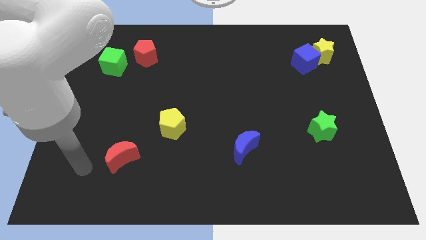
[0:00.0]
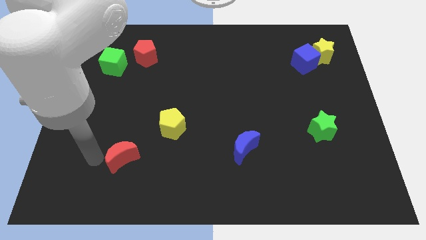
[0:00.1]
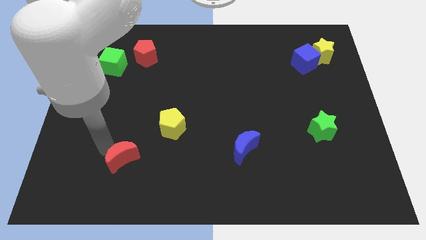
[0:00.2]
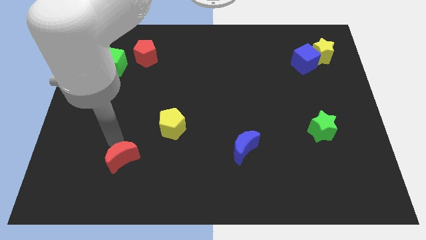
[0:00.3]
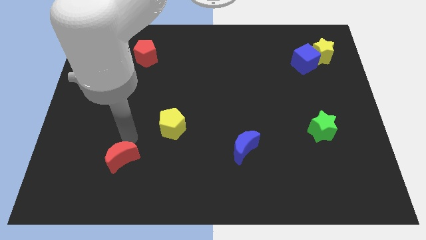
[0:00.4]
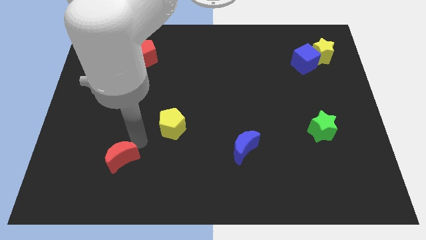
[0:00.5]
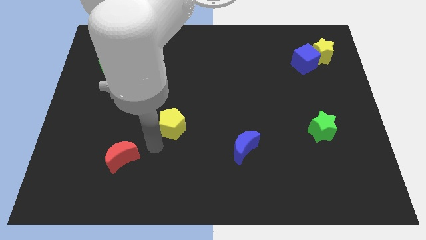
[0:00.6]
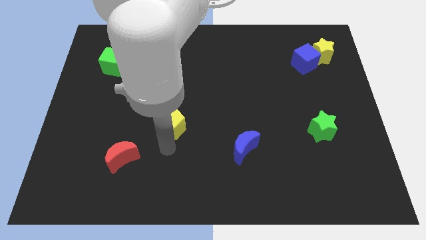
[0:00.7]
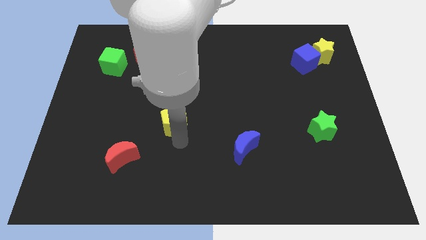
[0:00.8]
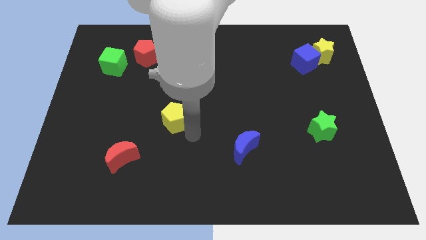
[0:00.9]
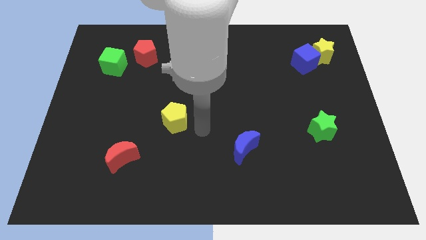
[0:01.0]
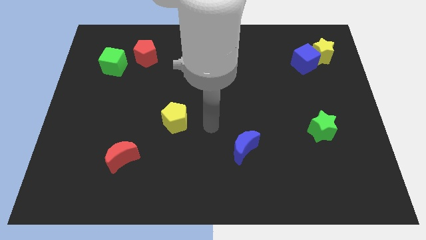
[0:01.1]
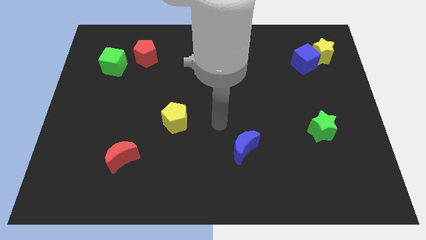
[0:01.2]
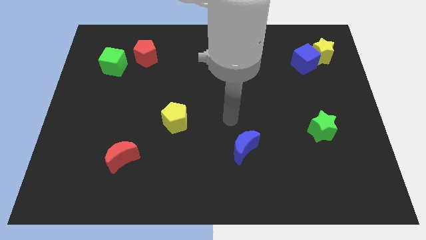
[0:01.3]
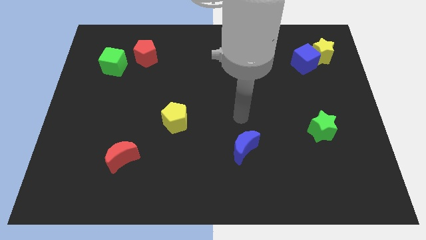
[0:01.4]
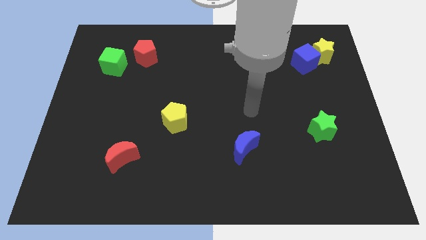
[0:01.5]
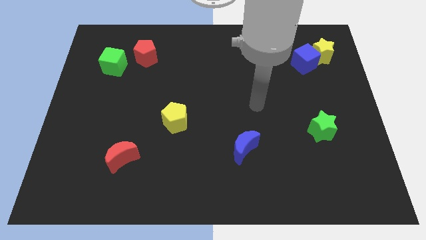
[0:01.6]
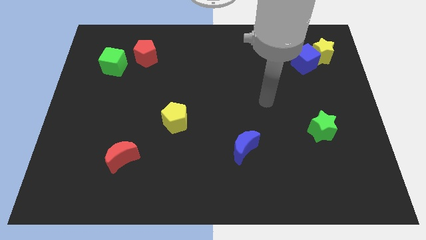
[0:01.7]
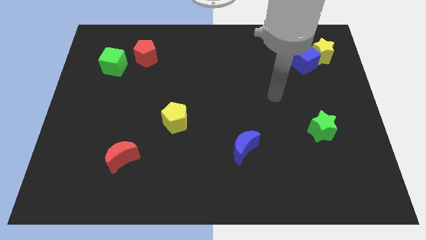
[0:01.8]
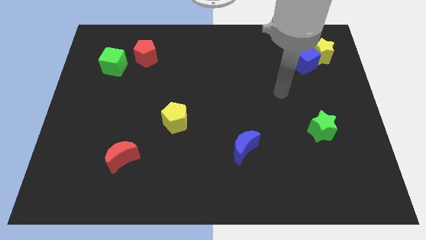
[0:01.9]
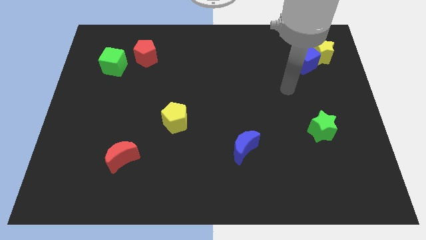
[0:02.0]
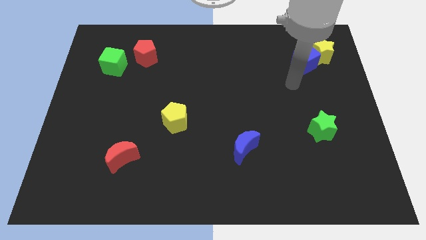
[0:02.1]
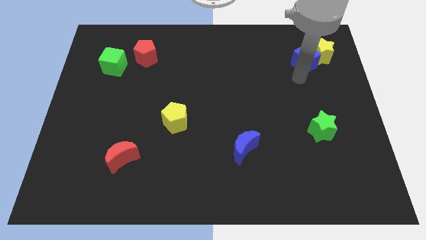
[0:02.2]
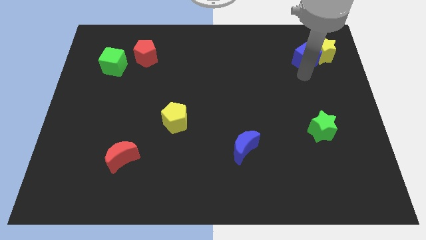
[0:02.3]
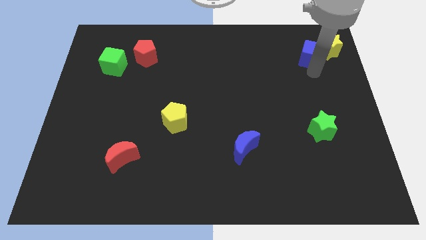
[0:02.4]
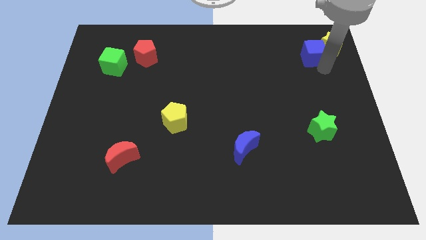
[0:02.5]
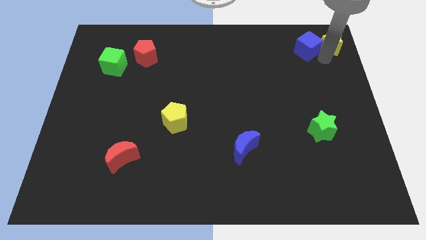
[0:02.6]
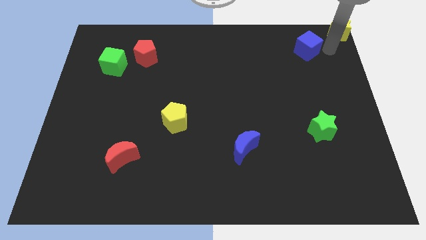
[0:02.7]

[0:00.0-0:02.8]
separate the blue cube from the yellow star

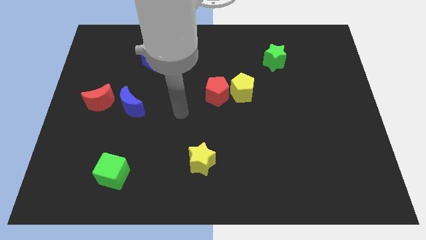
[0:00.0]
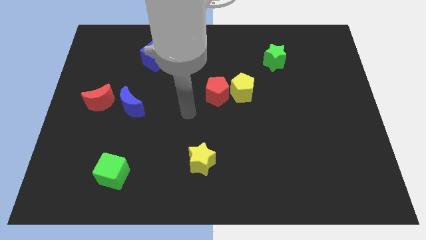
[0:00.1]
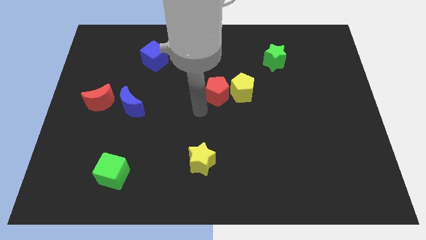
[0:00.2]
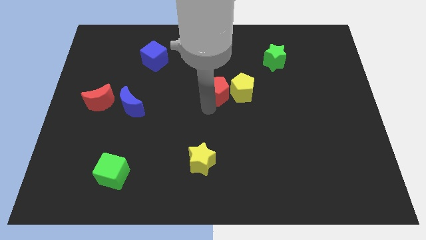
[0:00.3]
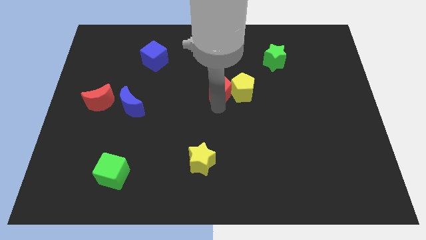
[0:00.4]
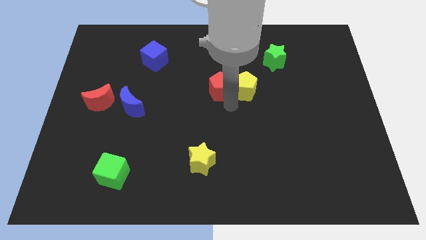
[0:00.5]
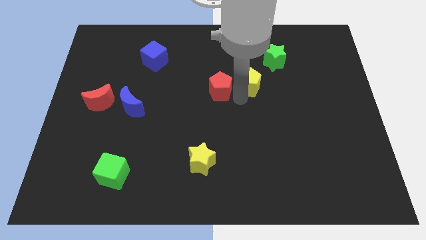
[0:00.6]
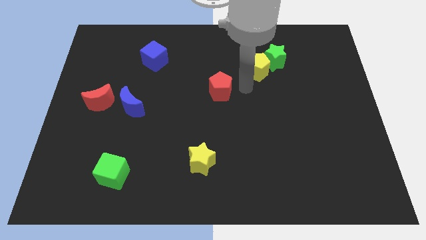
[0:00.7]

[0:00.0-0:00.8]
move the red pentagon away from the yellow pentagon

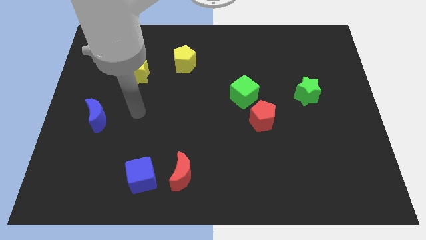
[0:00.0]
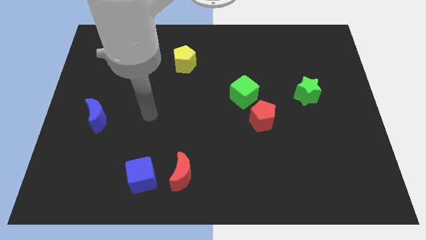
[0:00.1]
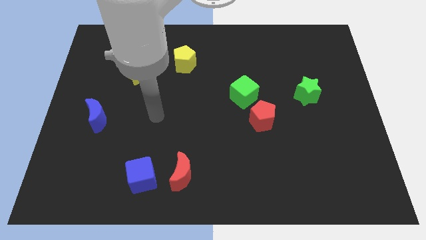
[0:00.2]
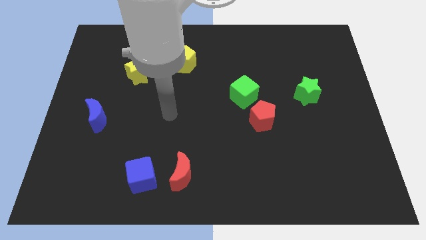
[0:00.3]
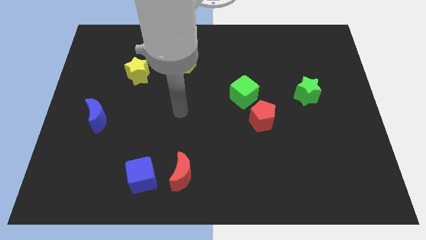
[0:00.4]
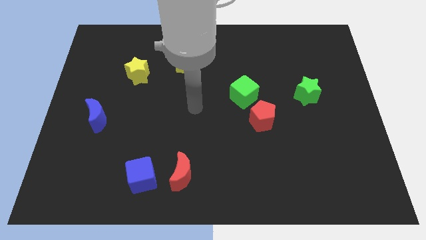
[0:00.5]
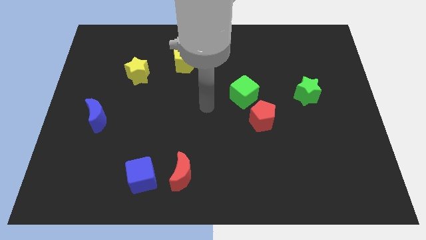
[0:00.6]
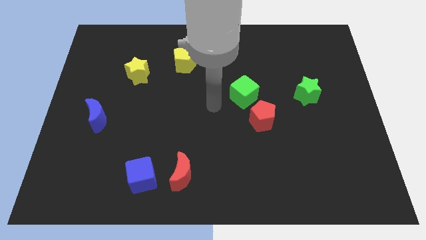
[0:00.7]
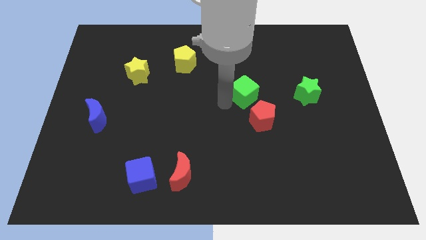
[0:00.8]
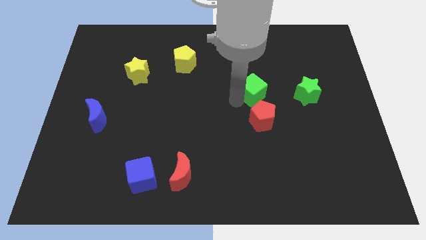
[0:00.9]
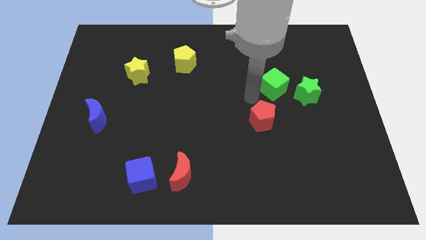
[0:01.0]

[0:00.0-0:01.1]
separate the red pentagon from the green cube

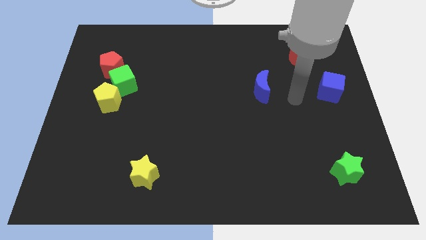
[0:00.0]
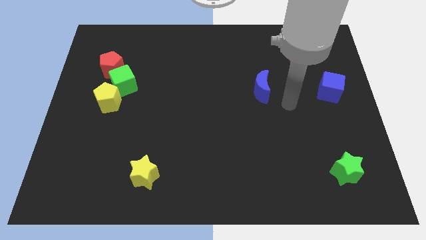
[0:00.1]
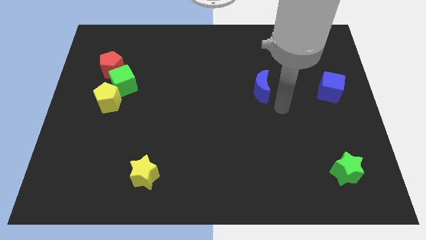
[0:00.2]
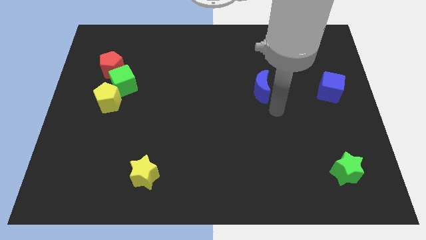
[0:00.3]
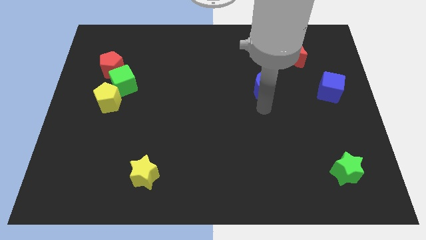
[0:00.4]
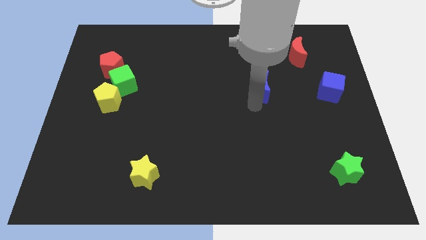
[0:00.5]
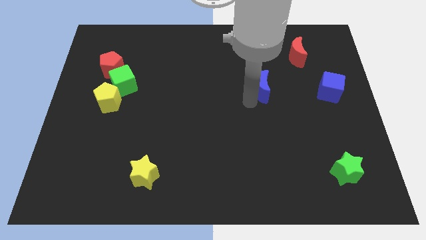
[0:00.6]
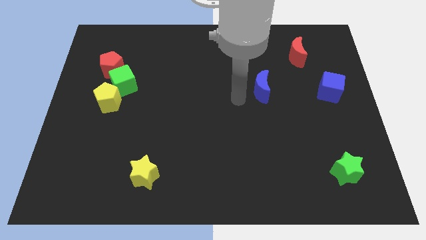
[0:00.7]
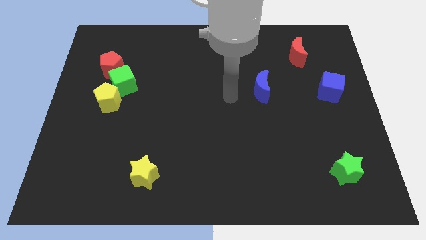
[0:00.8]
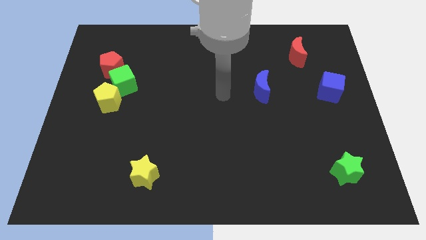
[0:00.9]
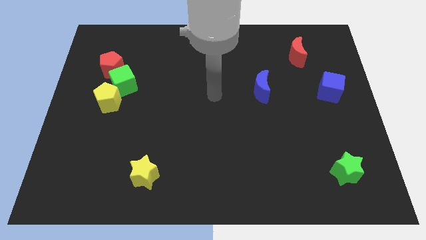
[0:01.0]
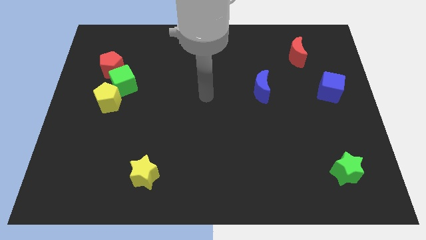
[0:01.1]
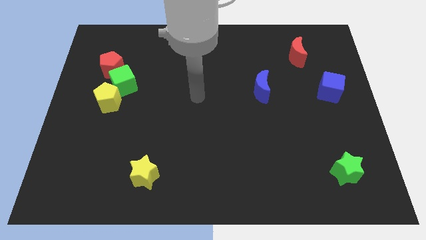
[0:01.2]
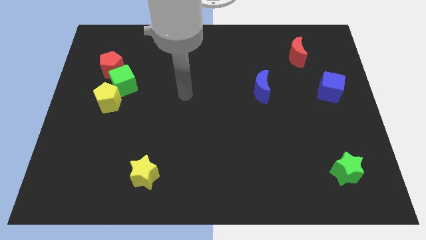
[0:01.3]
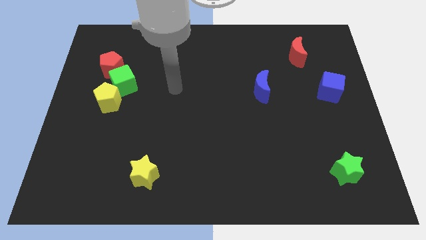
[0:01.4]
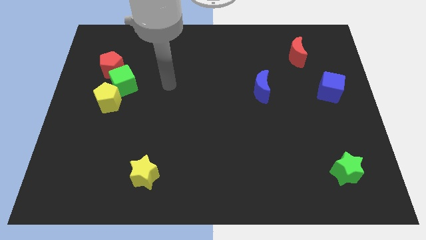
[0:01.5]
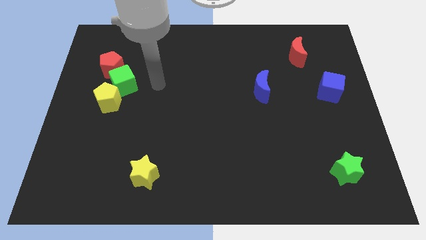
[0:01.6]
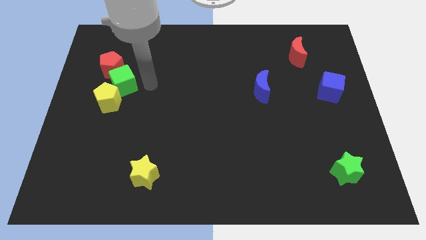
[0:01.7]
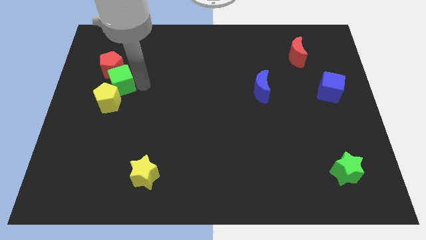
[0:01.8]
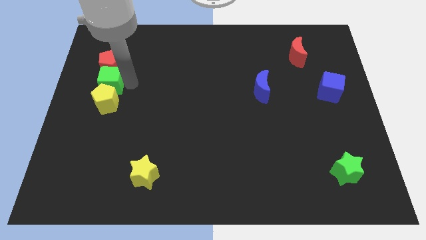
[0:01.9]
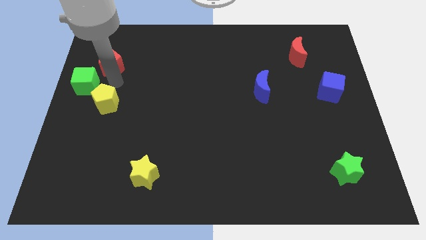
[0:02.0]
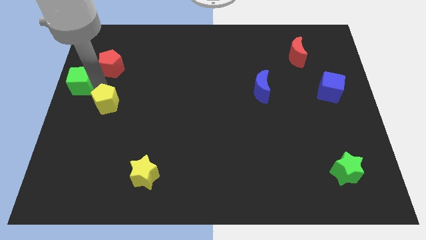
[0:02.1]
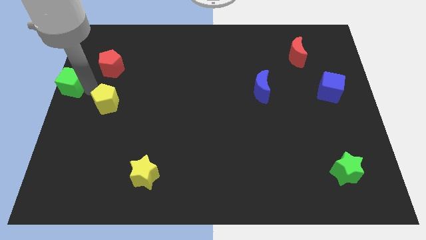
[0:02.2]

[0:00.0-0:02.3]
separate the yellow pentagon from the green cube

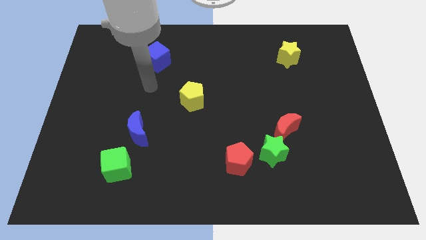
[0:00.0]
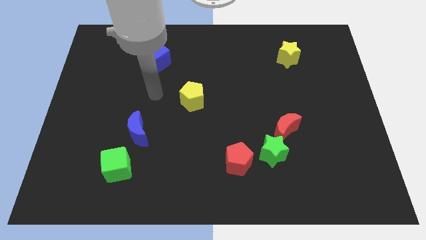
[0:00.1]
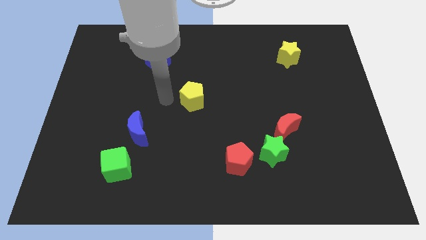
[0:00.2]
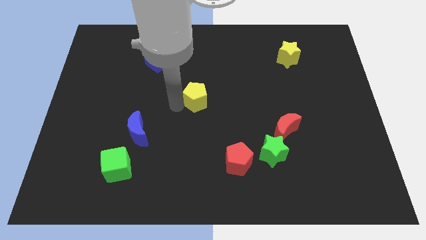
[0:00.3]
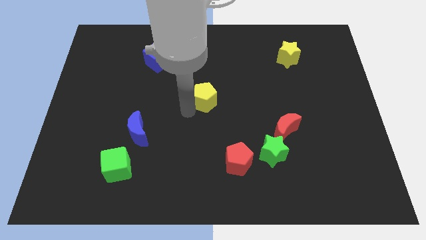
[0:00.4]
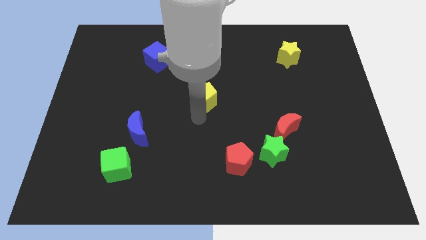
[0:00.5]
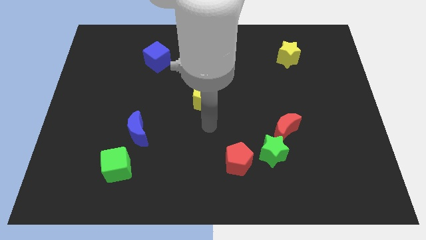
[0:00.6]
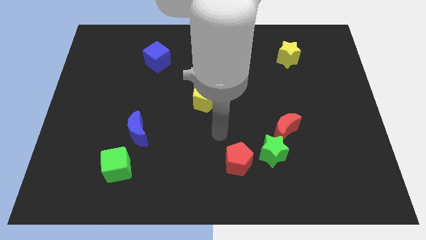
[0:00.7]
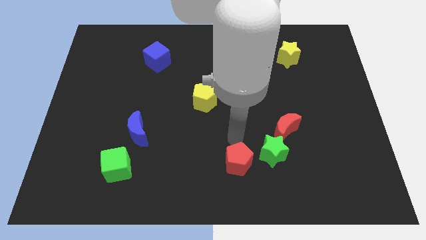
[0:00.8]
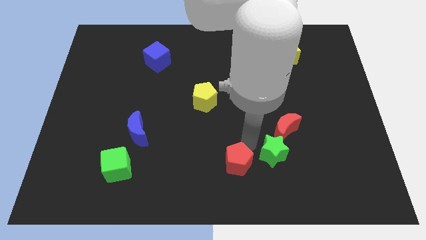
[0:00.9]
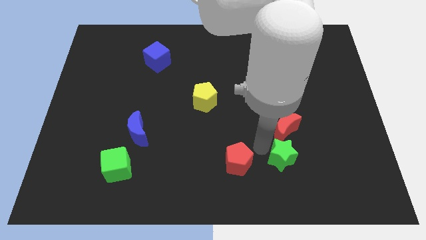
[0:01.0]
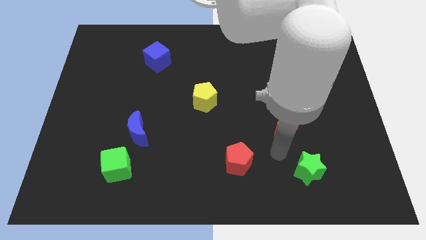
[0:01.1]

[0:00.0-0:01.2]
move the red moon away from the green star

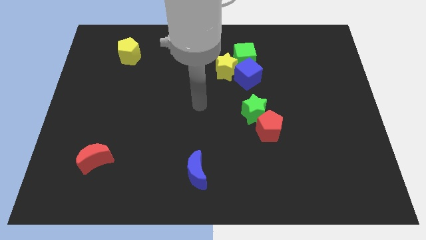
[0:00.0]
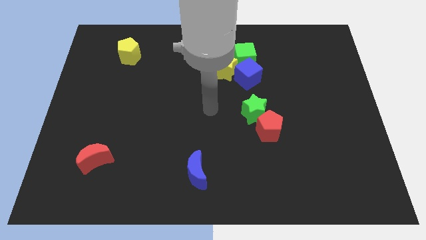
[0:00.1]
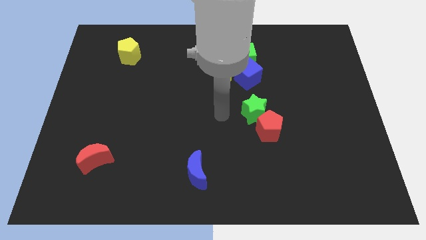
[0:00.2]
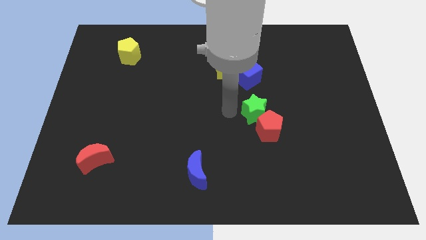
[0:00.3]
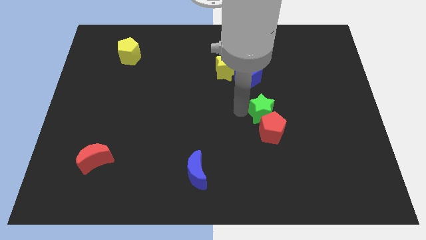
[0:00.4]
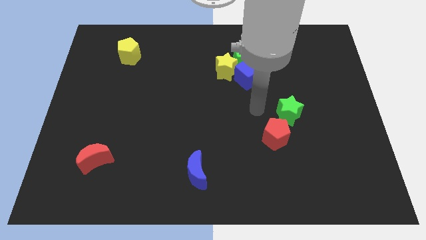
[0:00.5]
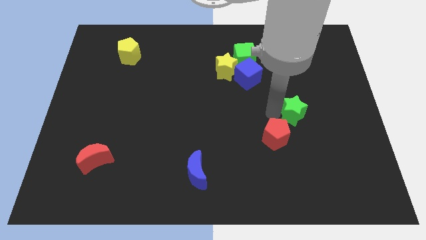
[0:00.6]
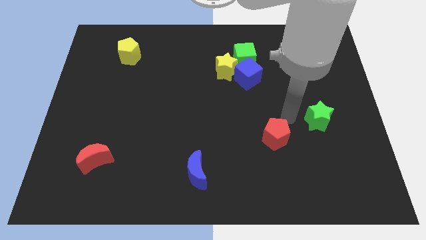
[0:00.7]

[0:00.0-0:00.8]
separate the red pentagon from the green star

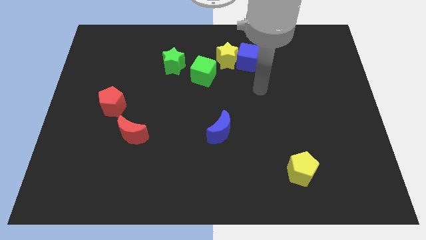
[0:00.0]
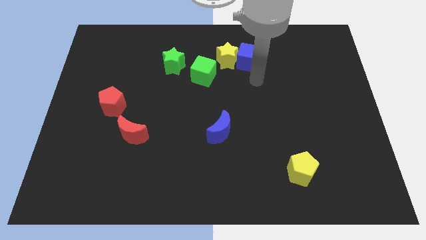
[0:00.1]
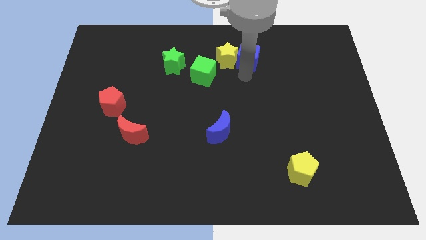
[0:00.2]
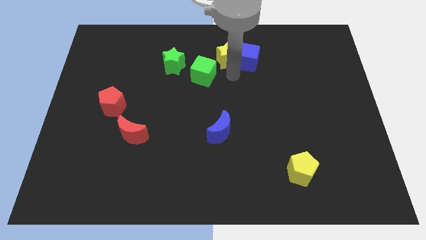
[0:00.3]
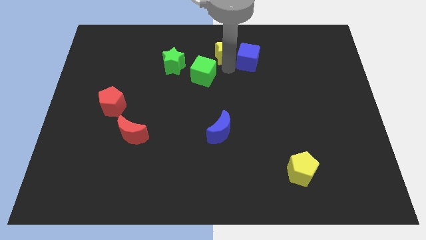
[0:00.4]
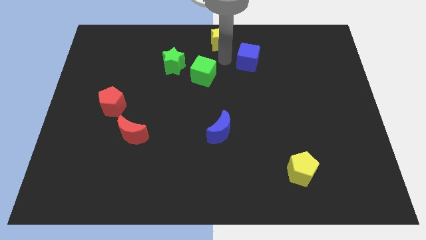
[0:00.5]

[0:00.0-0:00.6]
pull the blue cube apart from the yellow star
